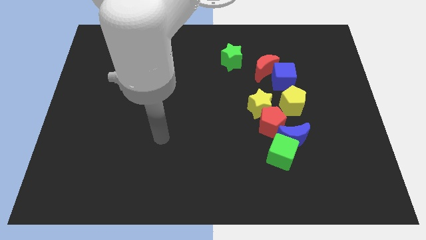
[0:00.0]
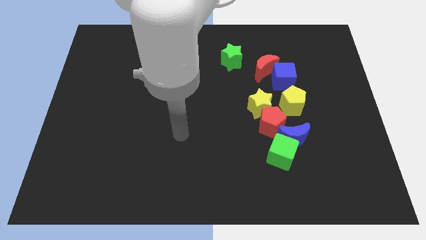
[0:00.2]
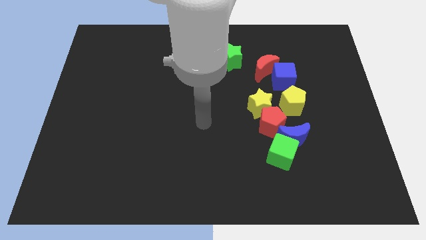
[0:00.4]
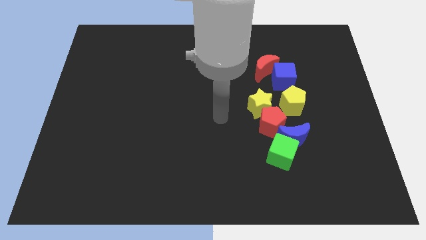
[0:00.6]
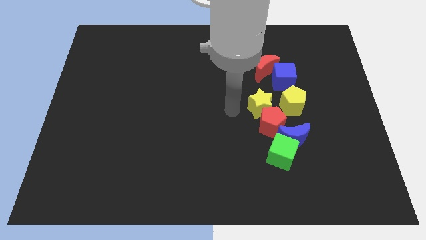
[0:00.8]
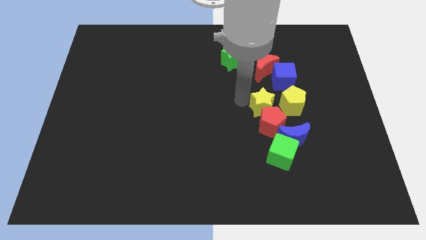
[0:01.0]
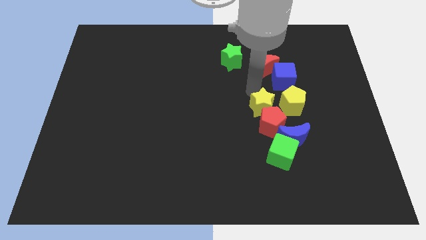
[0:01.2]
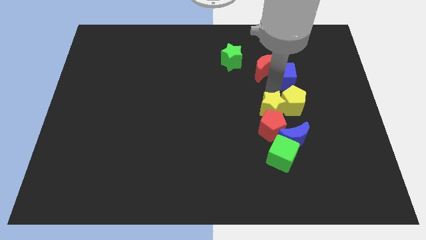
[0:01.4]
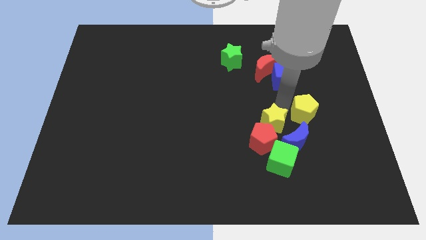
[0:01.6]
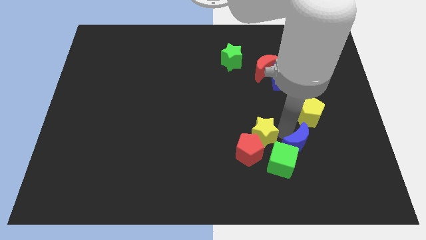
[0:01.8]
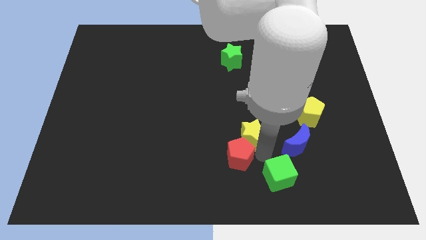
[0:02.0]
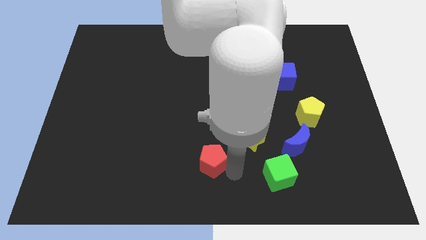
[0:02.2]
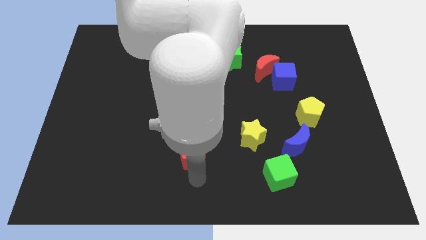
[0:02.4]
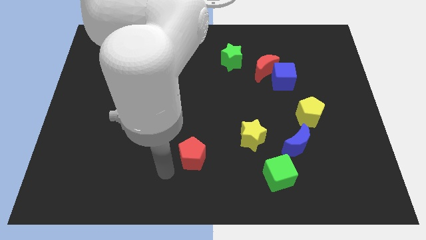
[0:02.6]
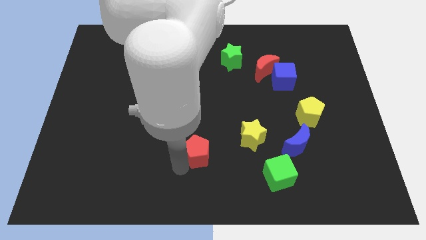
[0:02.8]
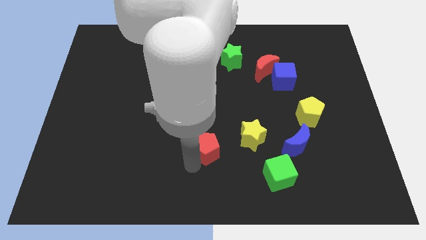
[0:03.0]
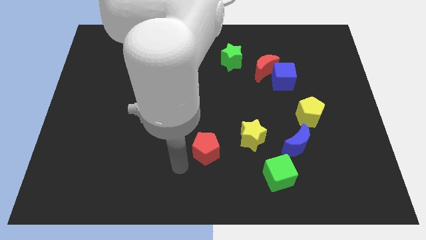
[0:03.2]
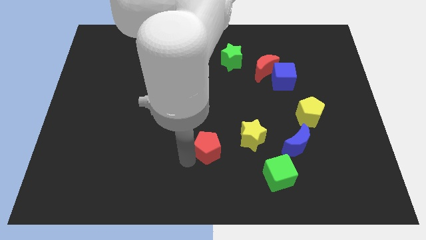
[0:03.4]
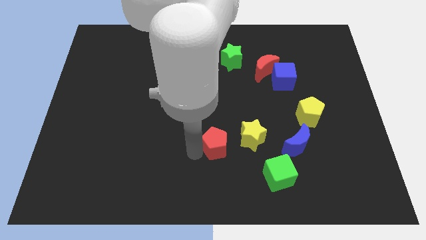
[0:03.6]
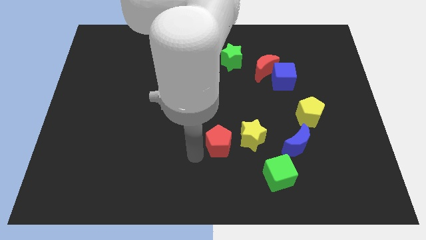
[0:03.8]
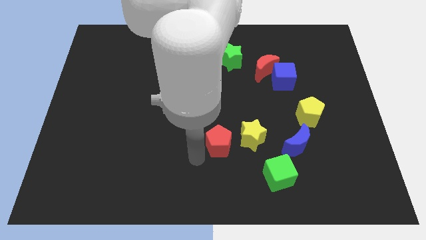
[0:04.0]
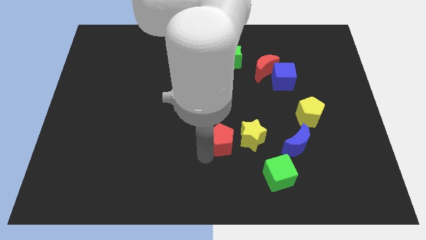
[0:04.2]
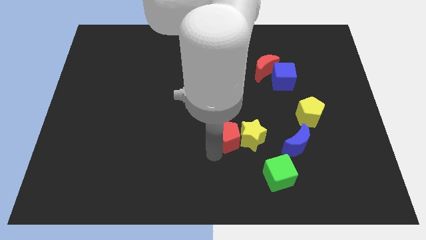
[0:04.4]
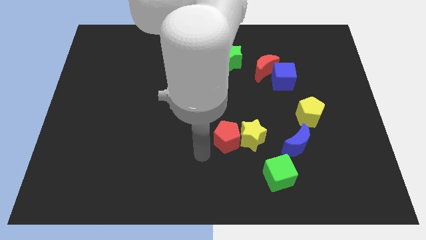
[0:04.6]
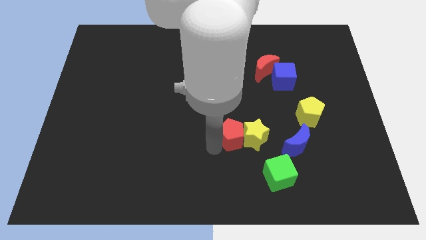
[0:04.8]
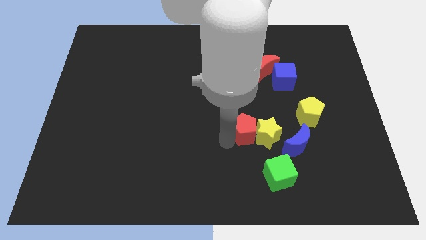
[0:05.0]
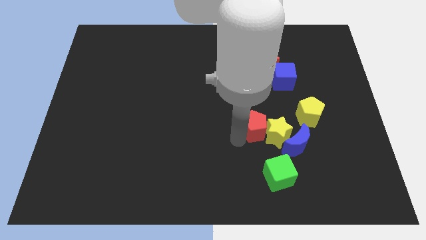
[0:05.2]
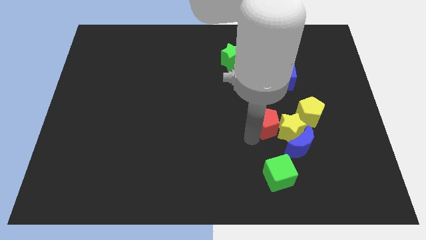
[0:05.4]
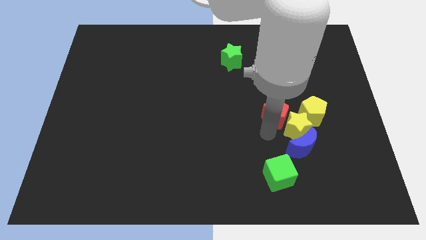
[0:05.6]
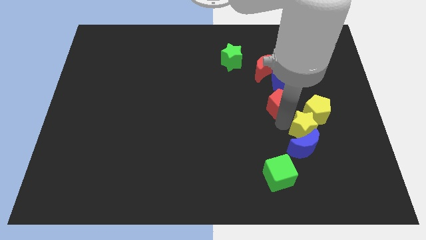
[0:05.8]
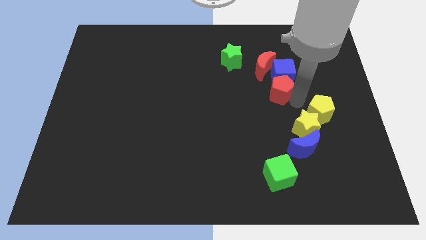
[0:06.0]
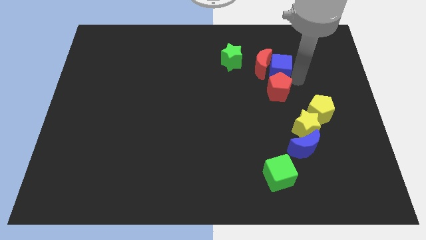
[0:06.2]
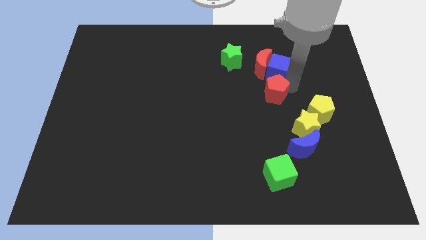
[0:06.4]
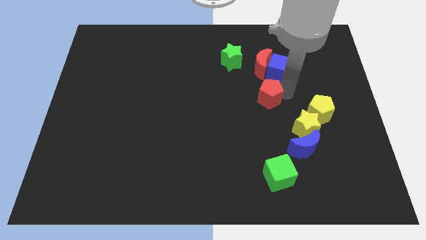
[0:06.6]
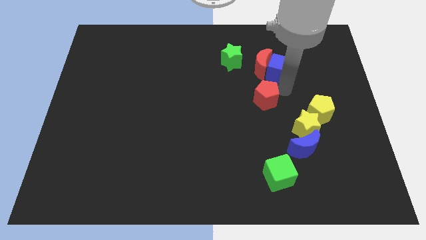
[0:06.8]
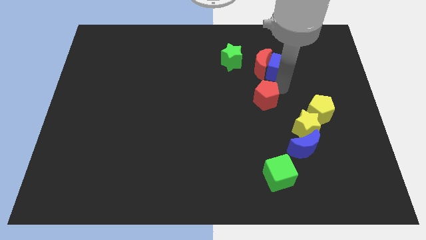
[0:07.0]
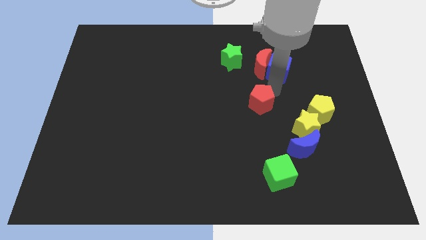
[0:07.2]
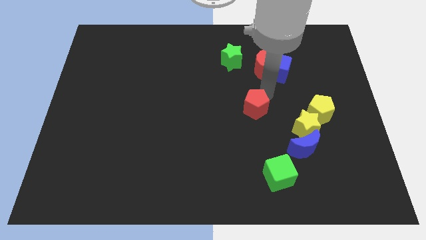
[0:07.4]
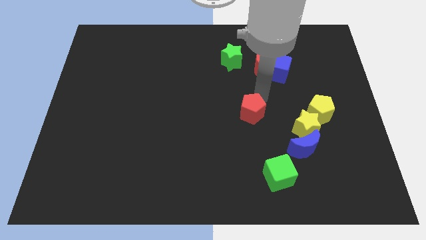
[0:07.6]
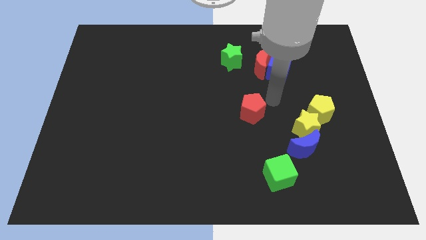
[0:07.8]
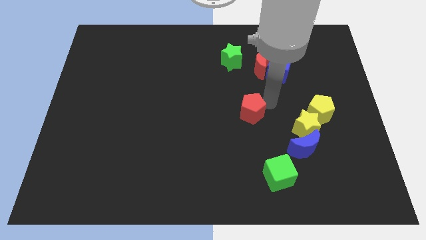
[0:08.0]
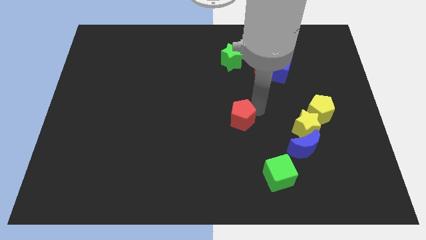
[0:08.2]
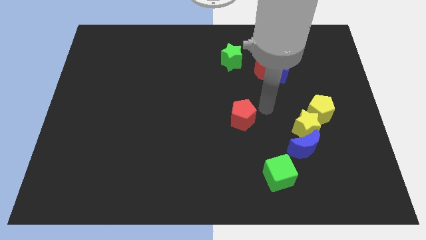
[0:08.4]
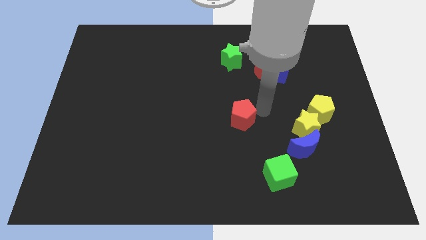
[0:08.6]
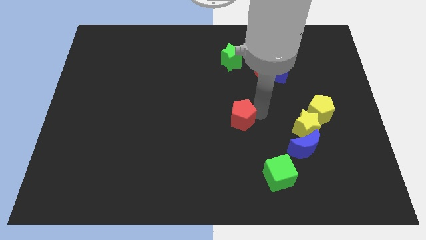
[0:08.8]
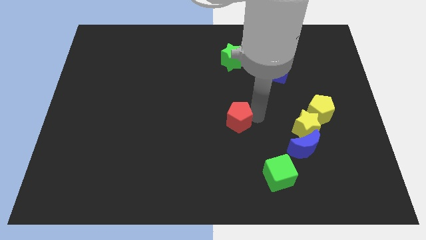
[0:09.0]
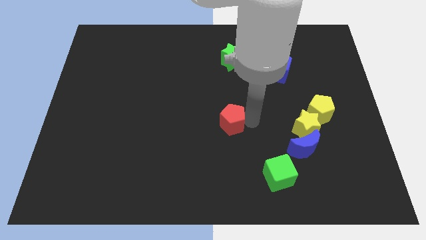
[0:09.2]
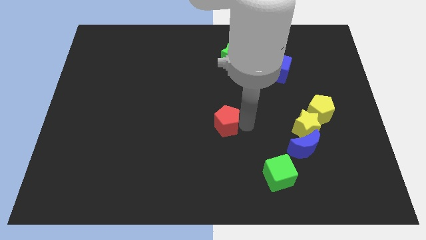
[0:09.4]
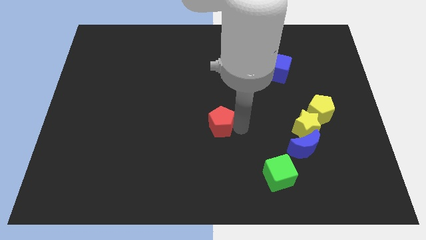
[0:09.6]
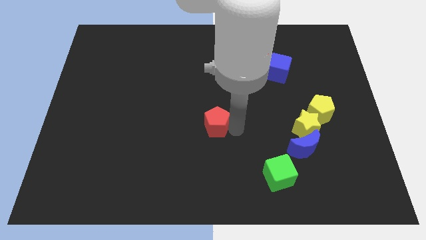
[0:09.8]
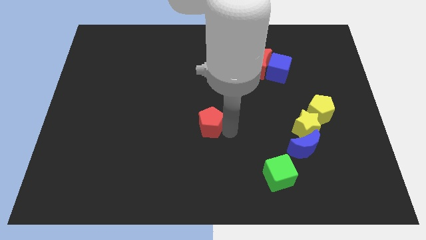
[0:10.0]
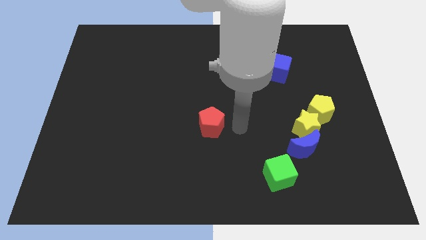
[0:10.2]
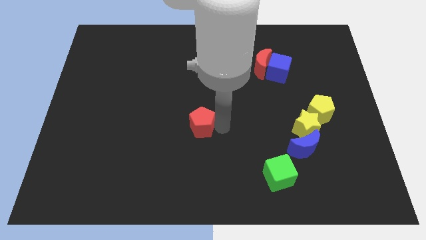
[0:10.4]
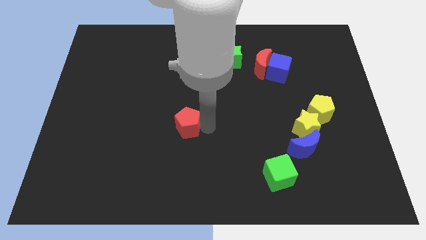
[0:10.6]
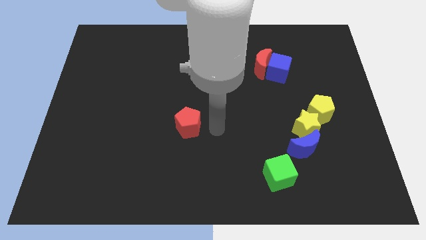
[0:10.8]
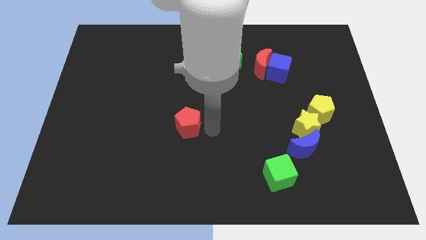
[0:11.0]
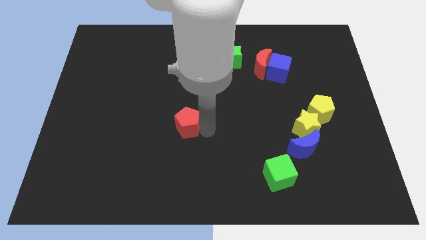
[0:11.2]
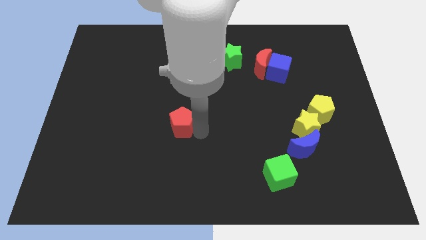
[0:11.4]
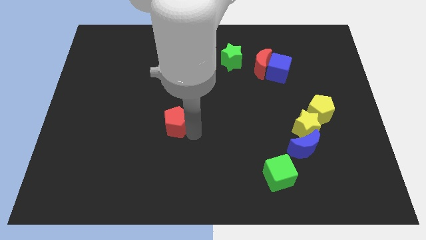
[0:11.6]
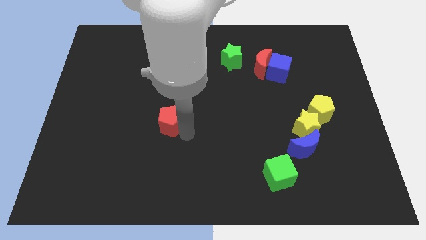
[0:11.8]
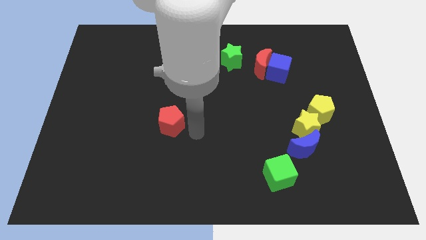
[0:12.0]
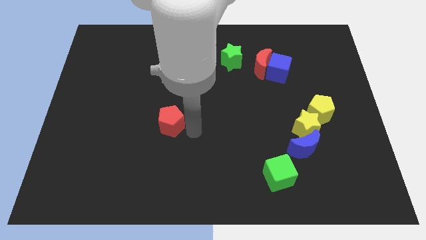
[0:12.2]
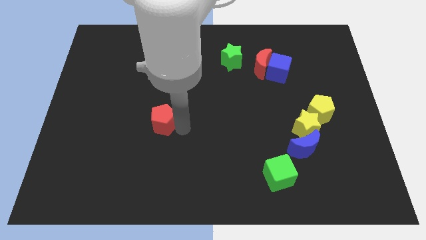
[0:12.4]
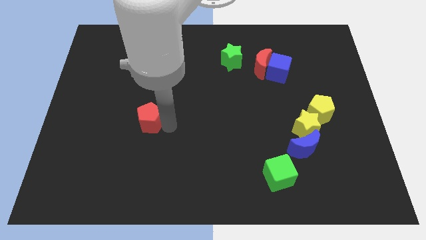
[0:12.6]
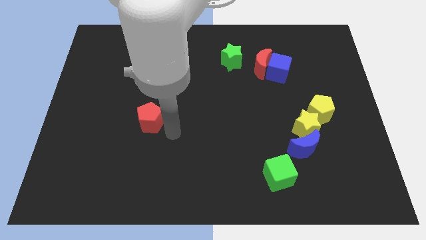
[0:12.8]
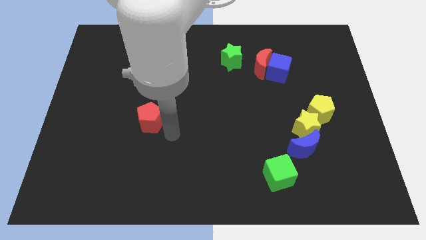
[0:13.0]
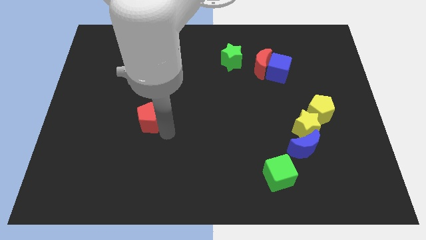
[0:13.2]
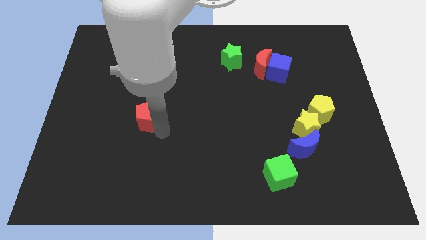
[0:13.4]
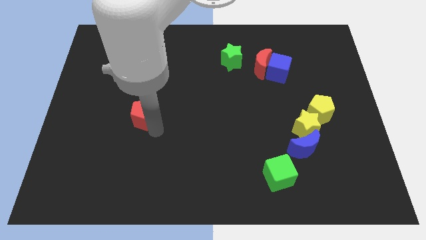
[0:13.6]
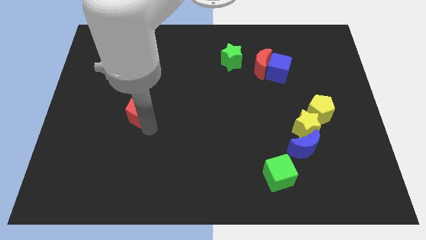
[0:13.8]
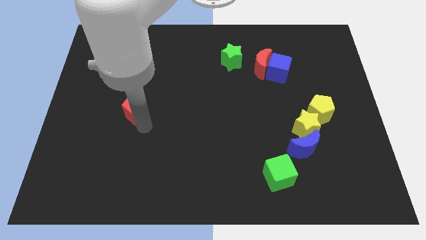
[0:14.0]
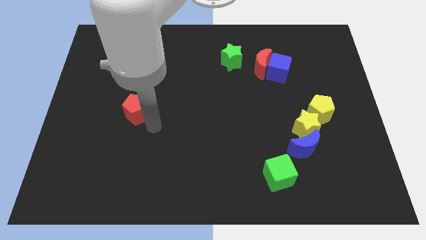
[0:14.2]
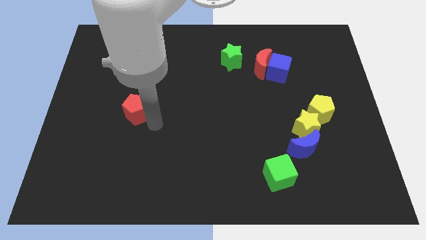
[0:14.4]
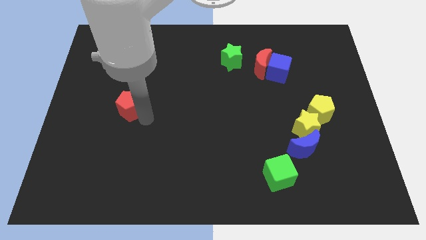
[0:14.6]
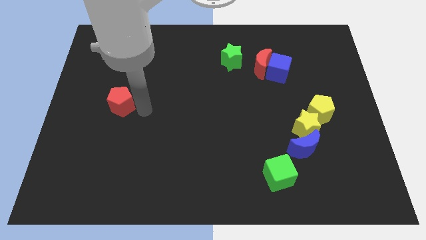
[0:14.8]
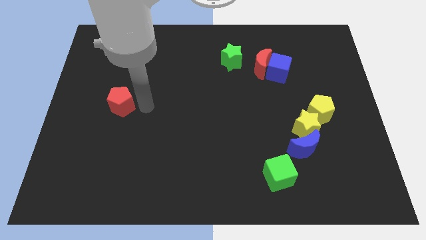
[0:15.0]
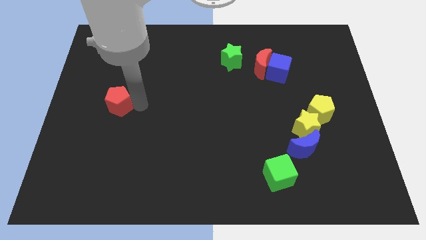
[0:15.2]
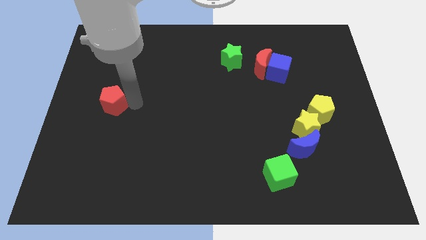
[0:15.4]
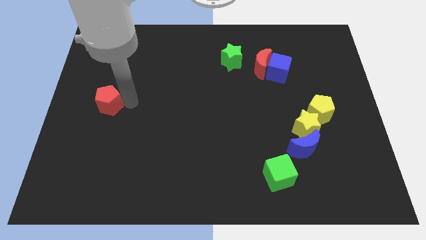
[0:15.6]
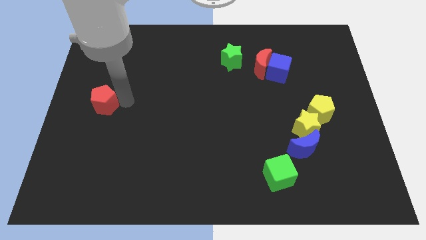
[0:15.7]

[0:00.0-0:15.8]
put the red pentagon to the center left
